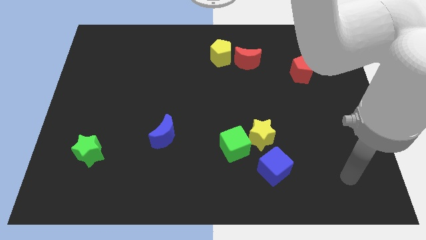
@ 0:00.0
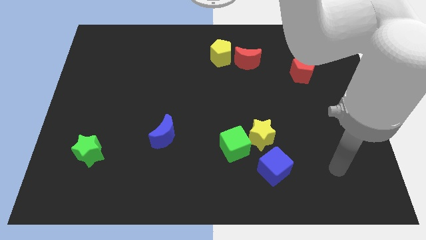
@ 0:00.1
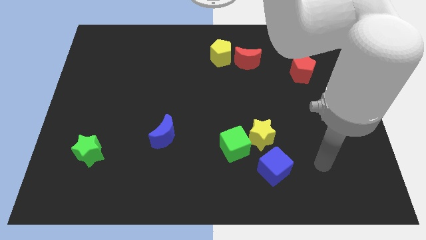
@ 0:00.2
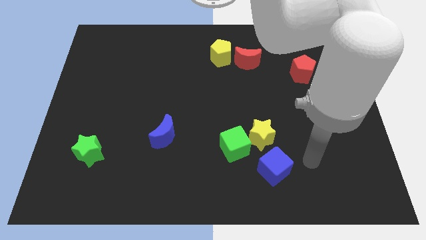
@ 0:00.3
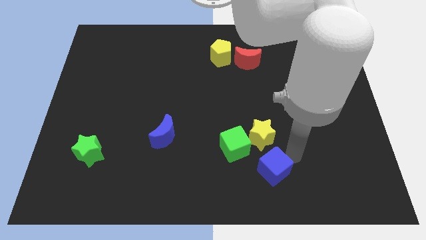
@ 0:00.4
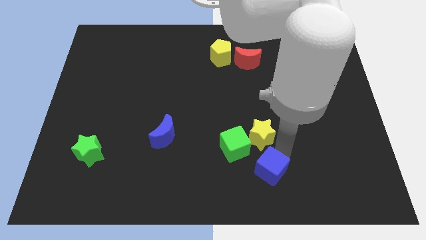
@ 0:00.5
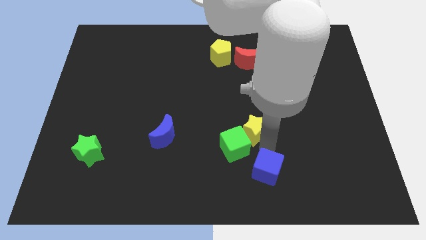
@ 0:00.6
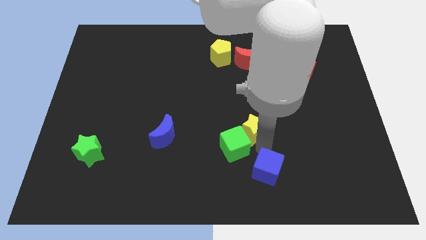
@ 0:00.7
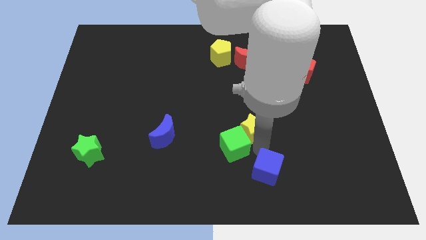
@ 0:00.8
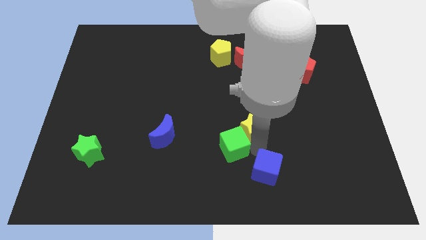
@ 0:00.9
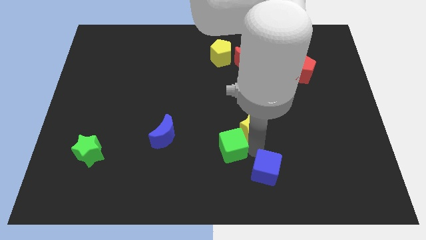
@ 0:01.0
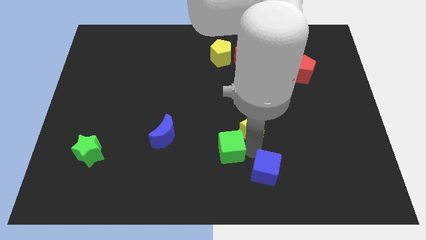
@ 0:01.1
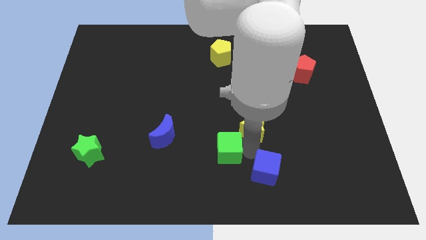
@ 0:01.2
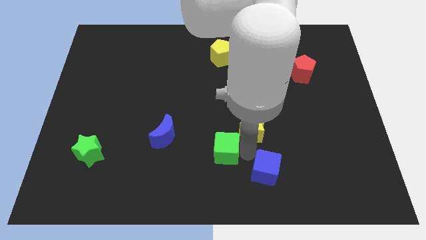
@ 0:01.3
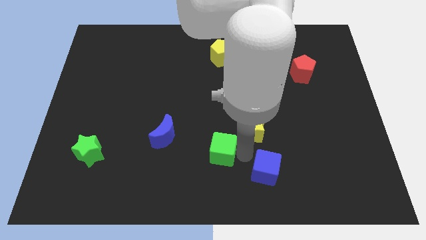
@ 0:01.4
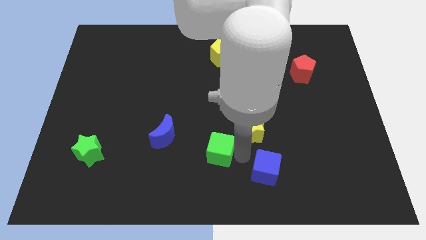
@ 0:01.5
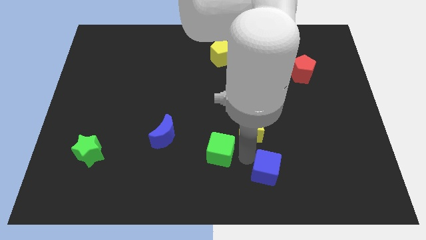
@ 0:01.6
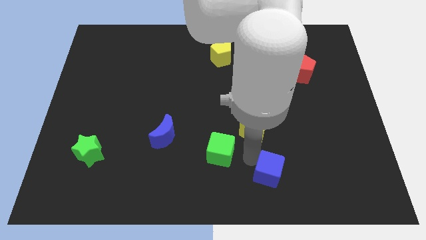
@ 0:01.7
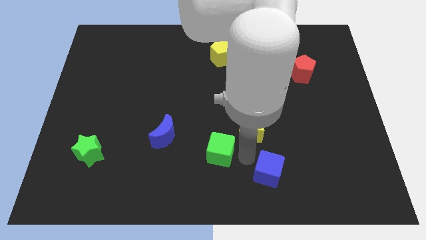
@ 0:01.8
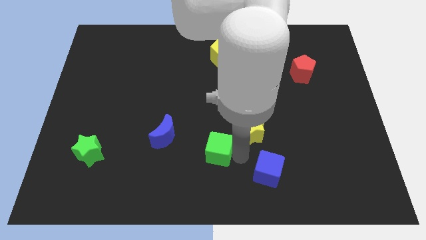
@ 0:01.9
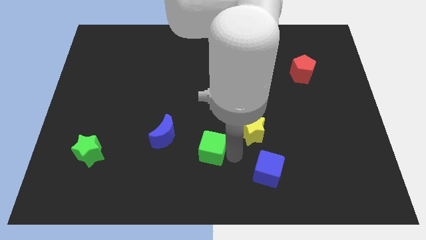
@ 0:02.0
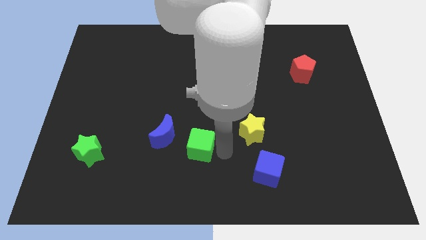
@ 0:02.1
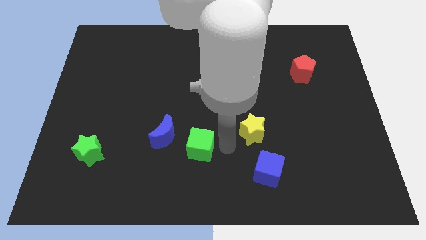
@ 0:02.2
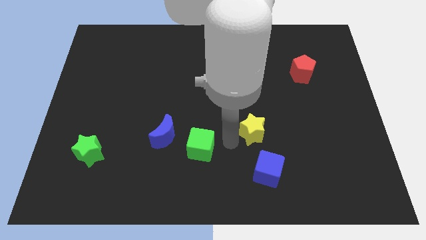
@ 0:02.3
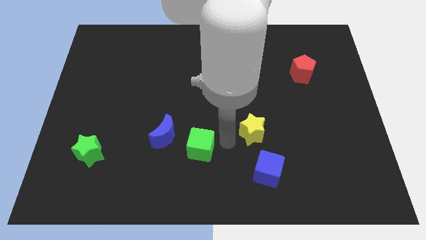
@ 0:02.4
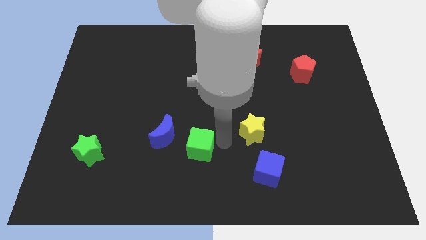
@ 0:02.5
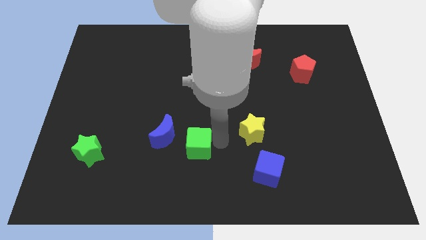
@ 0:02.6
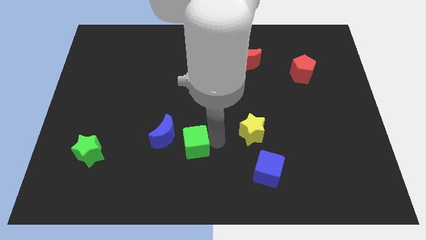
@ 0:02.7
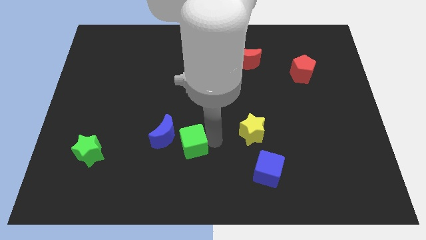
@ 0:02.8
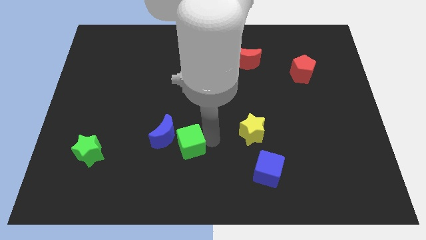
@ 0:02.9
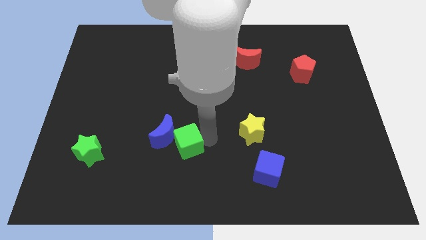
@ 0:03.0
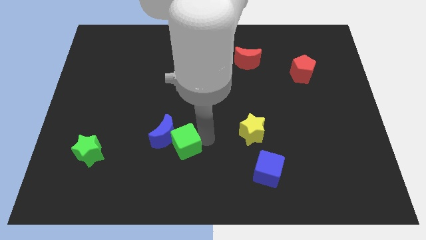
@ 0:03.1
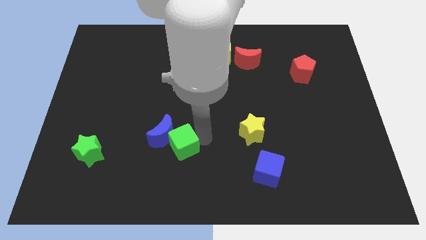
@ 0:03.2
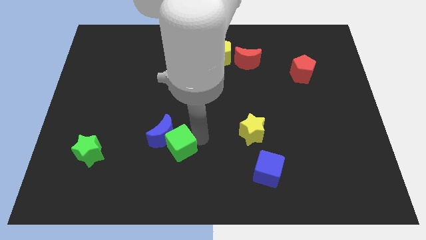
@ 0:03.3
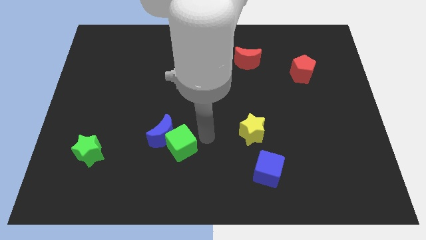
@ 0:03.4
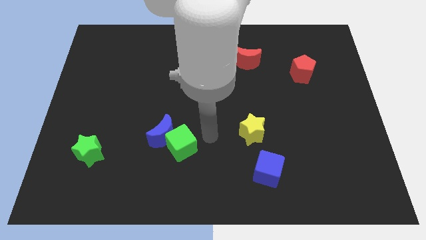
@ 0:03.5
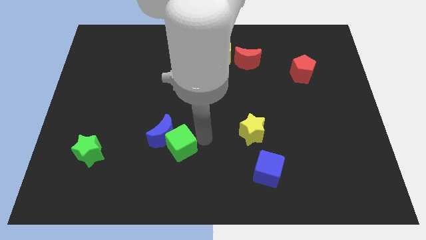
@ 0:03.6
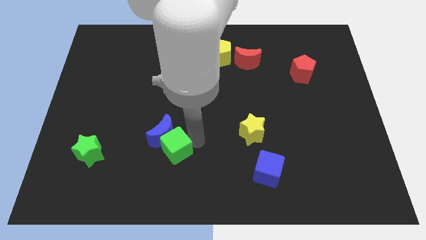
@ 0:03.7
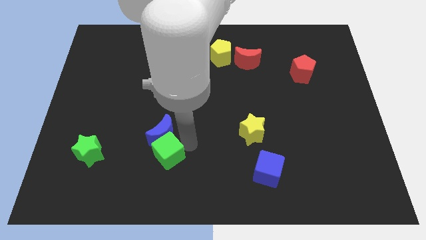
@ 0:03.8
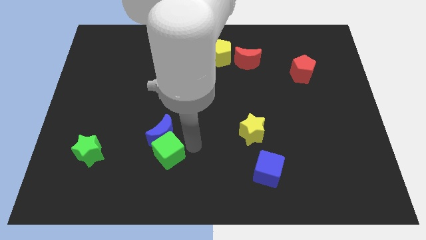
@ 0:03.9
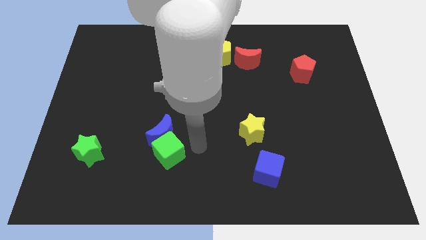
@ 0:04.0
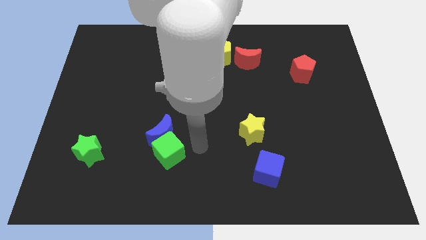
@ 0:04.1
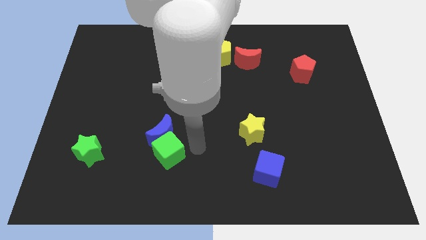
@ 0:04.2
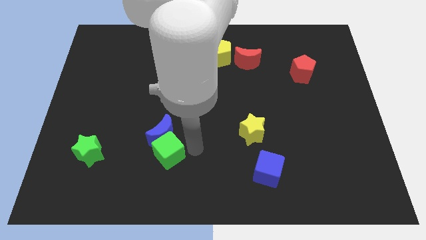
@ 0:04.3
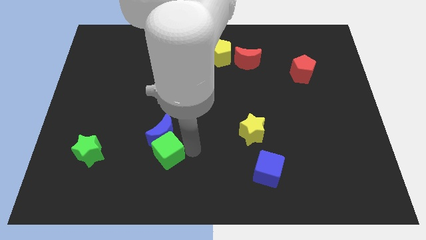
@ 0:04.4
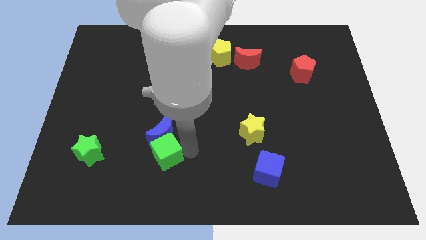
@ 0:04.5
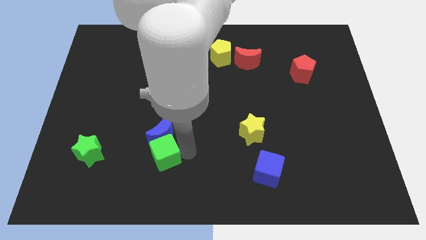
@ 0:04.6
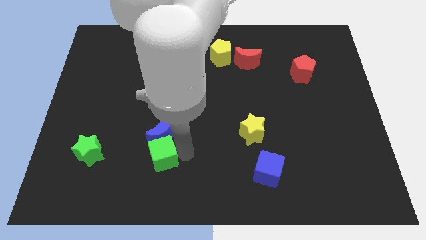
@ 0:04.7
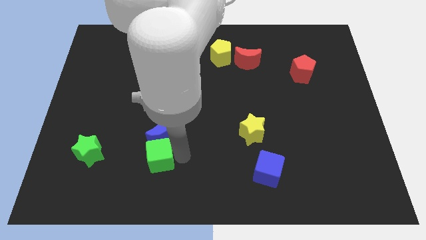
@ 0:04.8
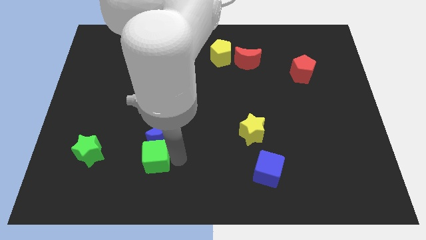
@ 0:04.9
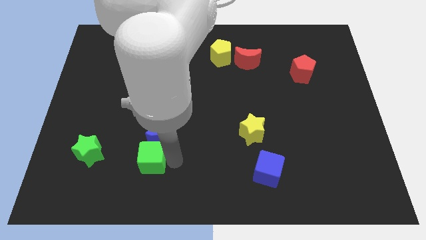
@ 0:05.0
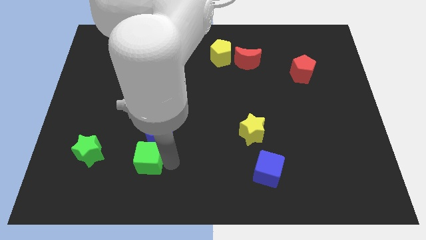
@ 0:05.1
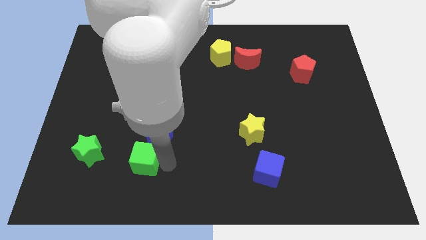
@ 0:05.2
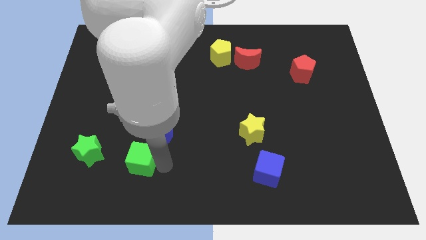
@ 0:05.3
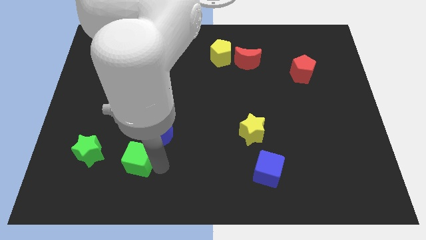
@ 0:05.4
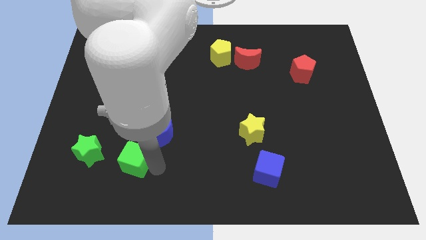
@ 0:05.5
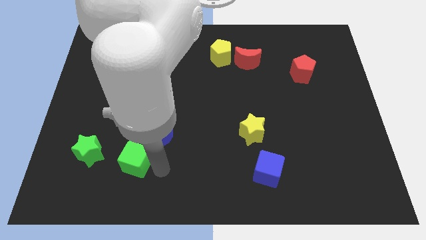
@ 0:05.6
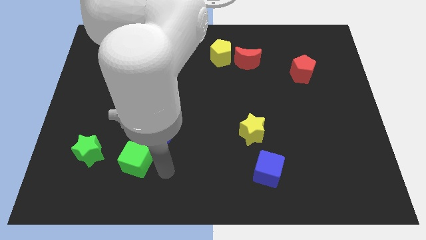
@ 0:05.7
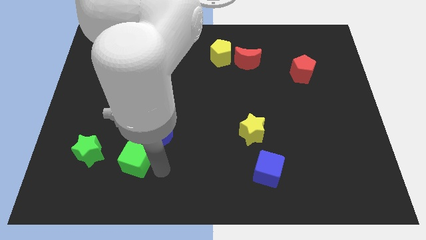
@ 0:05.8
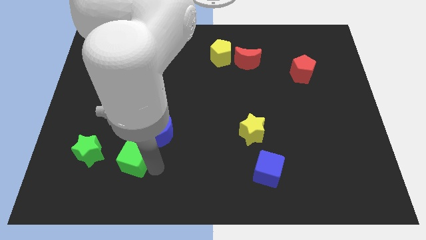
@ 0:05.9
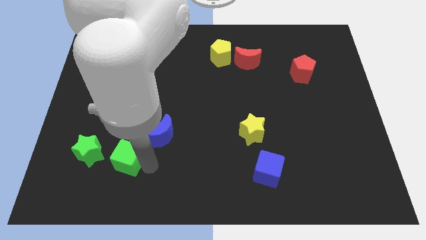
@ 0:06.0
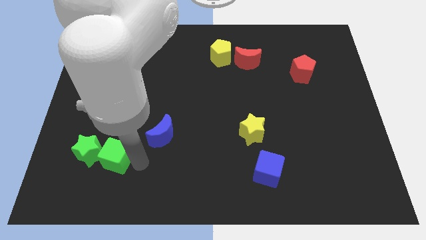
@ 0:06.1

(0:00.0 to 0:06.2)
push the green cube close to the green star

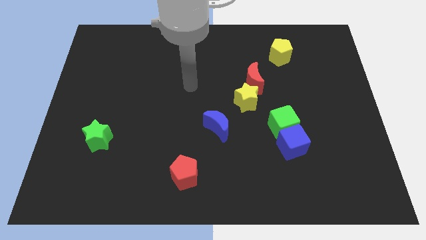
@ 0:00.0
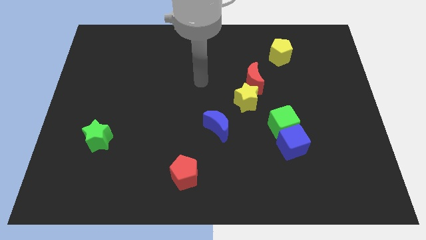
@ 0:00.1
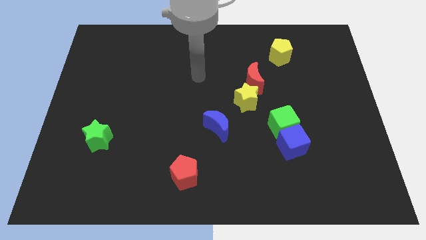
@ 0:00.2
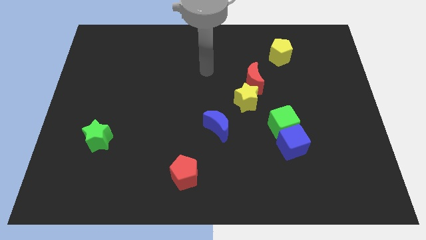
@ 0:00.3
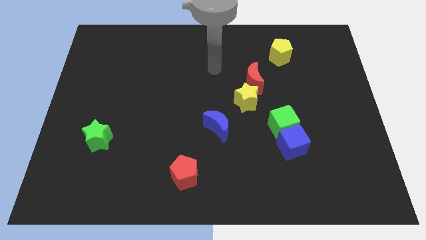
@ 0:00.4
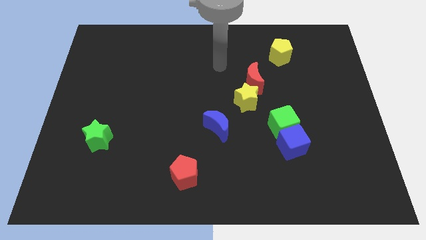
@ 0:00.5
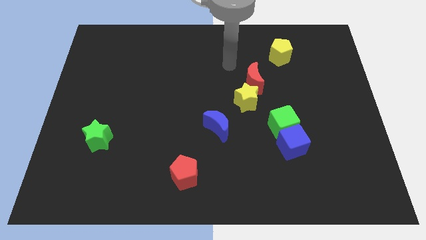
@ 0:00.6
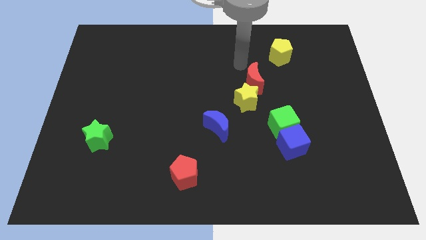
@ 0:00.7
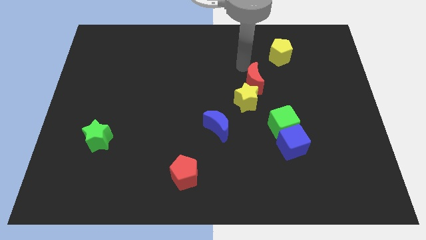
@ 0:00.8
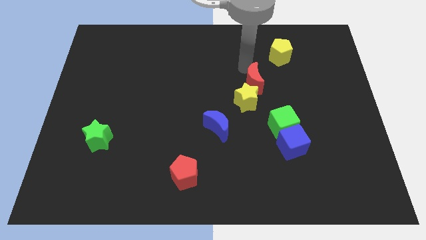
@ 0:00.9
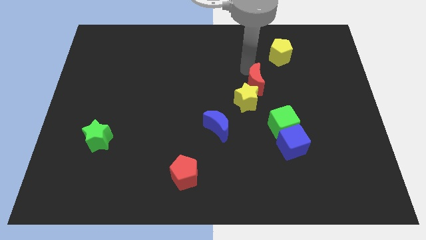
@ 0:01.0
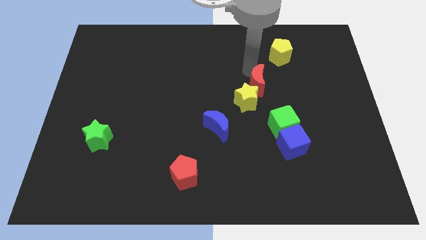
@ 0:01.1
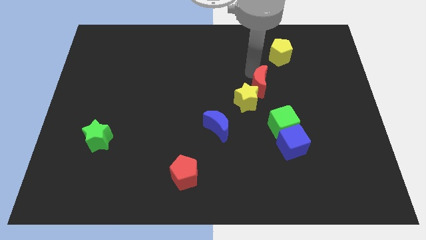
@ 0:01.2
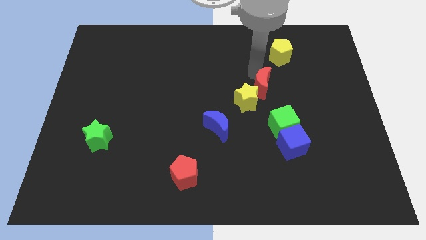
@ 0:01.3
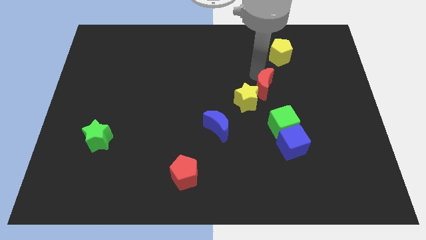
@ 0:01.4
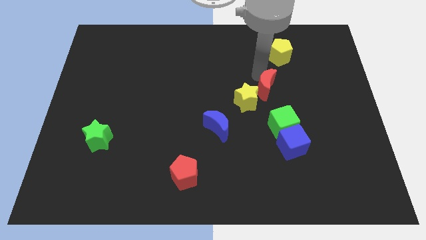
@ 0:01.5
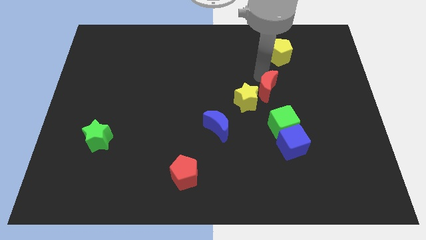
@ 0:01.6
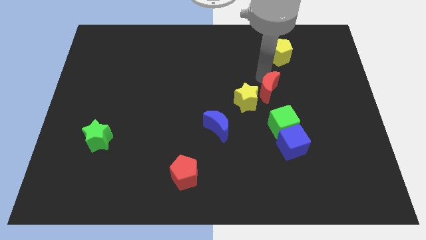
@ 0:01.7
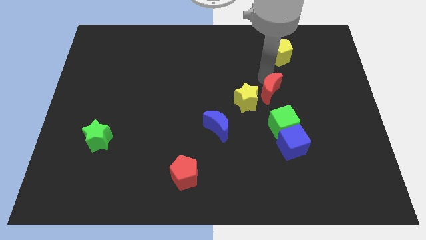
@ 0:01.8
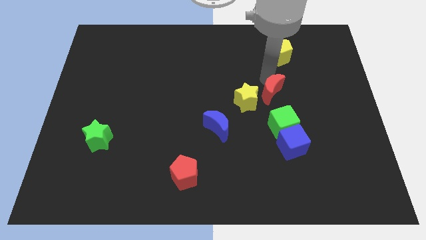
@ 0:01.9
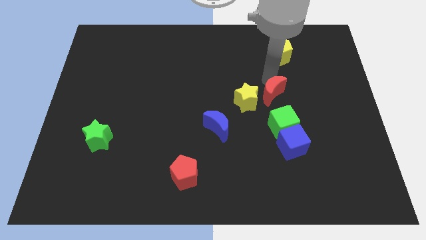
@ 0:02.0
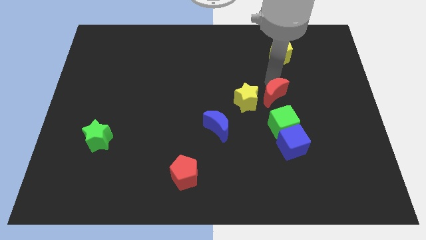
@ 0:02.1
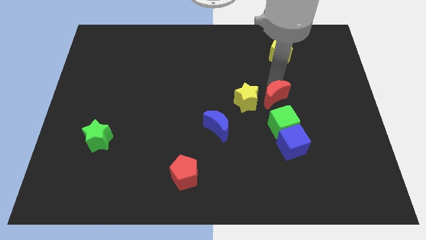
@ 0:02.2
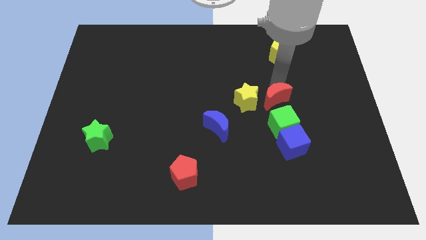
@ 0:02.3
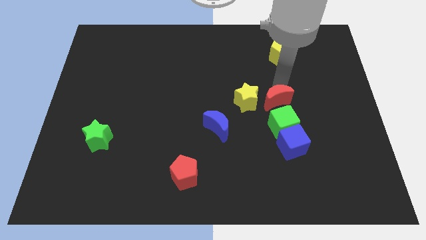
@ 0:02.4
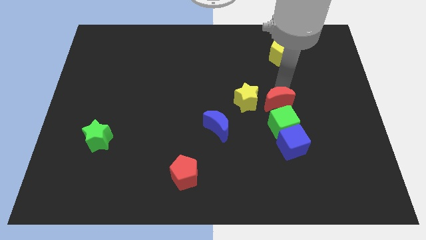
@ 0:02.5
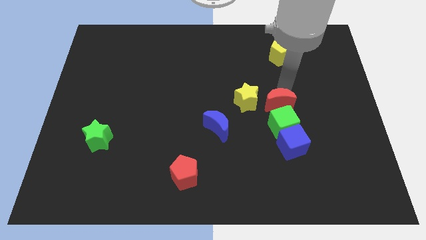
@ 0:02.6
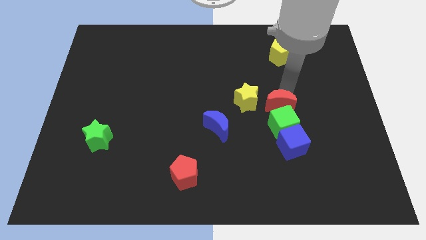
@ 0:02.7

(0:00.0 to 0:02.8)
push the red moon towards the green cube
